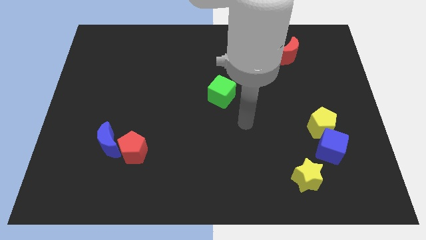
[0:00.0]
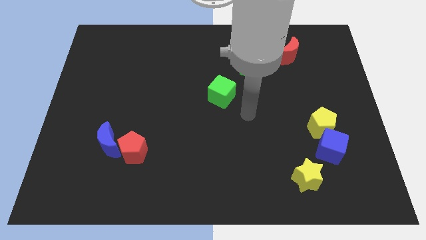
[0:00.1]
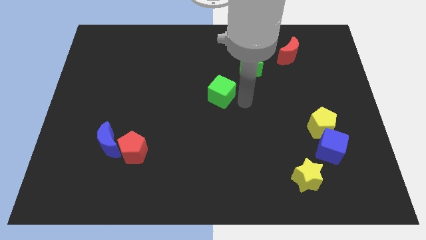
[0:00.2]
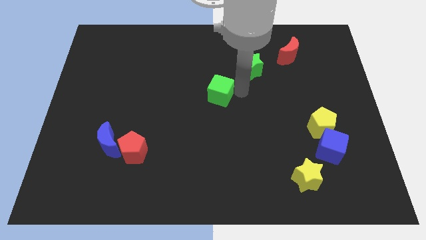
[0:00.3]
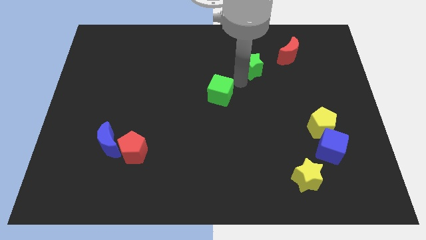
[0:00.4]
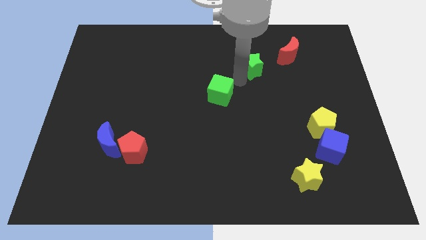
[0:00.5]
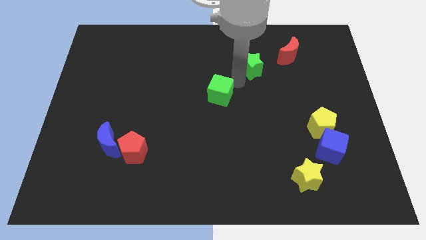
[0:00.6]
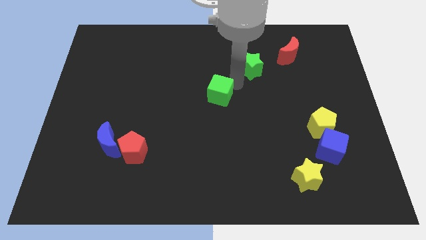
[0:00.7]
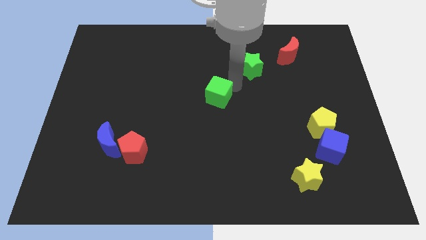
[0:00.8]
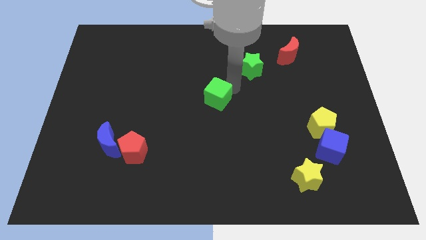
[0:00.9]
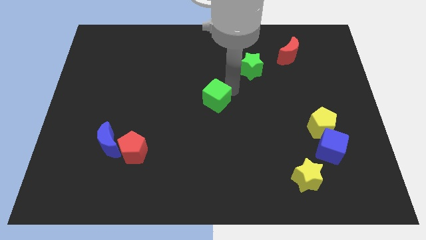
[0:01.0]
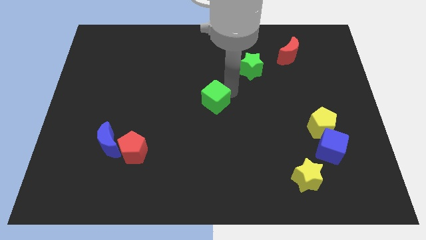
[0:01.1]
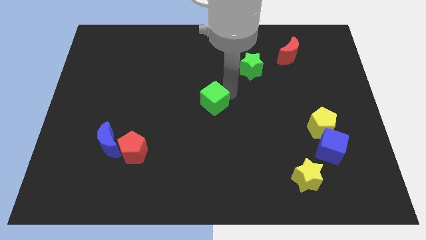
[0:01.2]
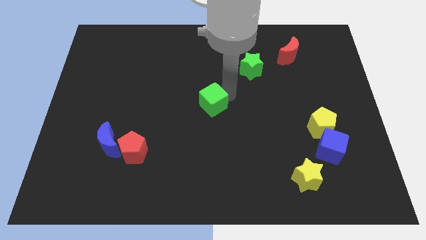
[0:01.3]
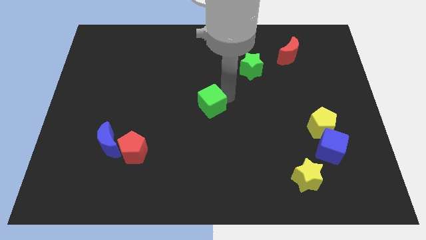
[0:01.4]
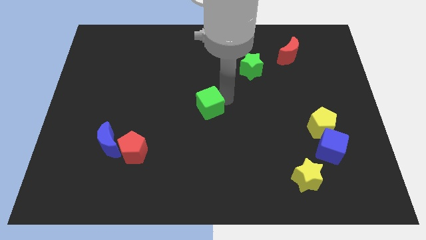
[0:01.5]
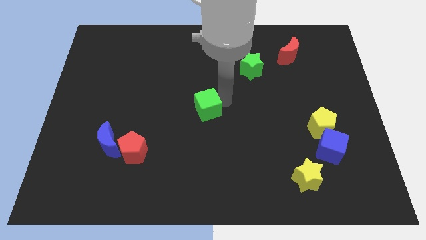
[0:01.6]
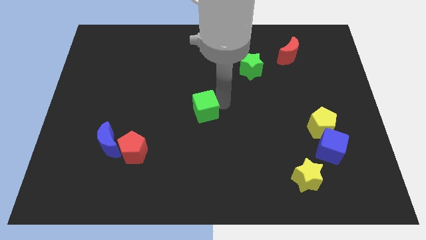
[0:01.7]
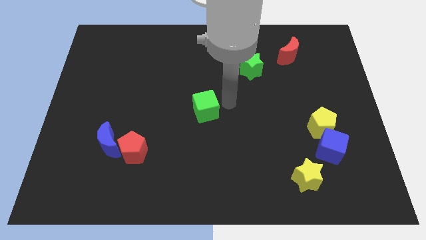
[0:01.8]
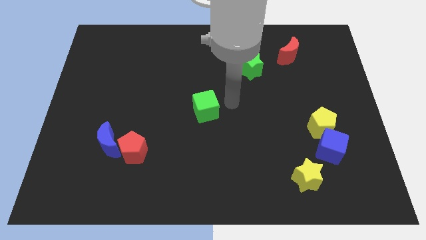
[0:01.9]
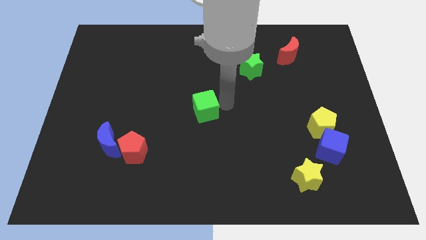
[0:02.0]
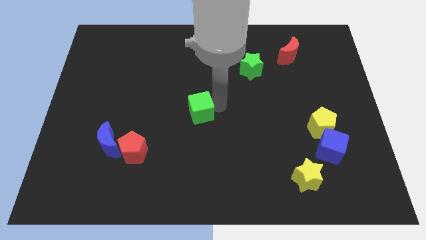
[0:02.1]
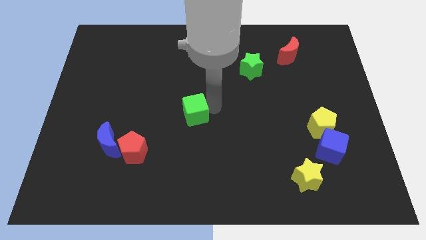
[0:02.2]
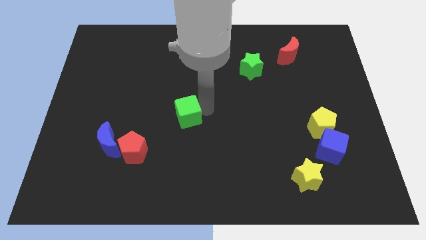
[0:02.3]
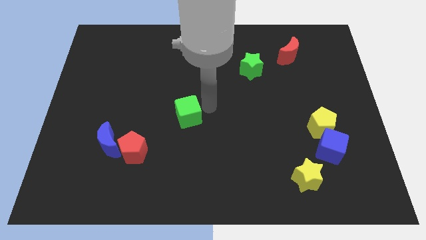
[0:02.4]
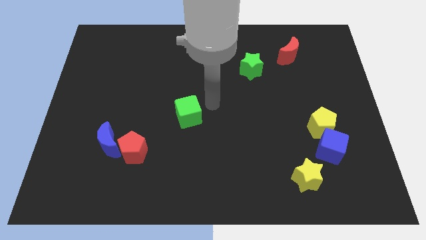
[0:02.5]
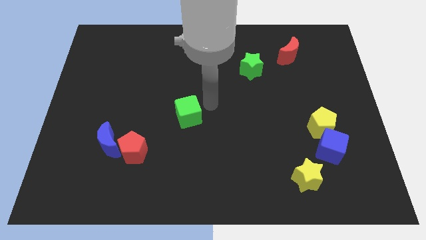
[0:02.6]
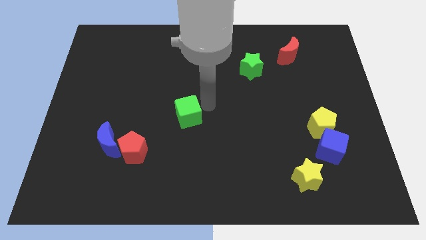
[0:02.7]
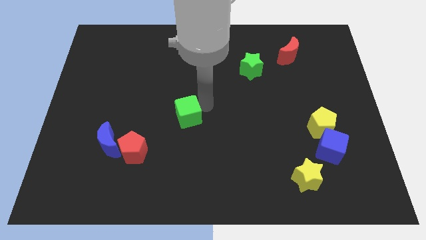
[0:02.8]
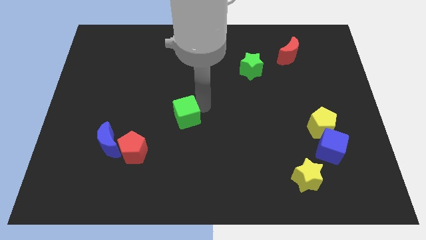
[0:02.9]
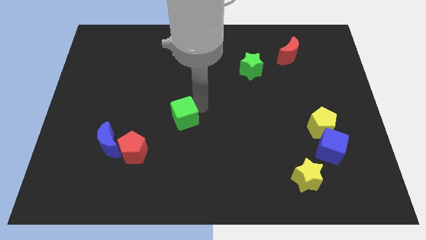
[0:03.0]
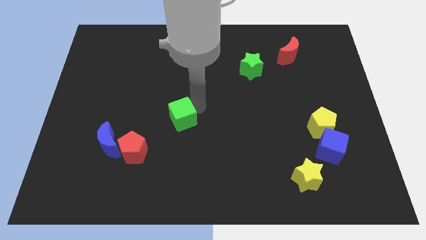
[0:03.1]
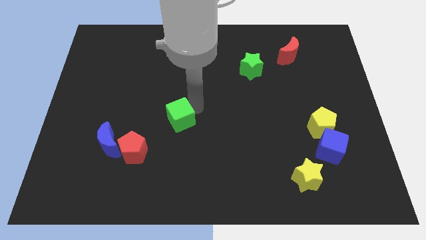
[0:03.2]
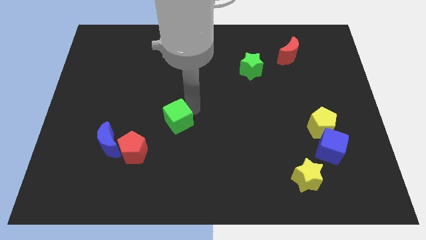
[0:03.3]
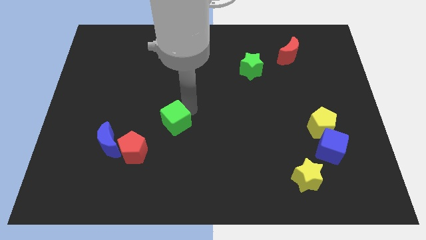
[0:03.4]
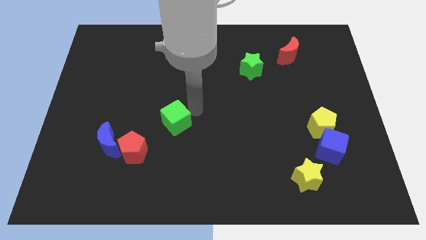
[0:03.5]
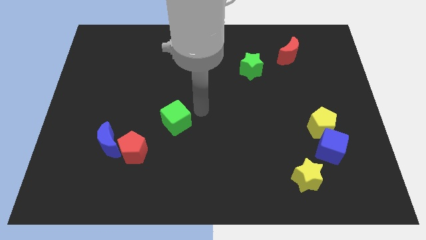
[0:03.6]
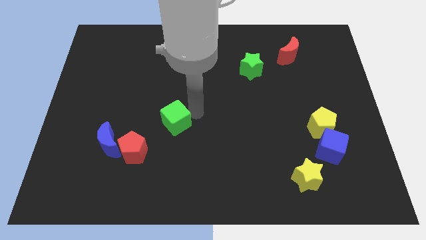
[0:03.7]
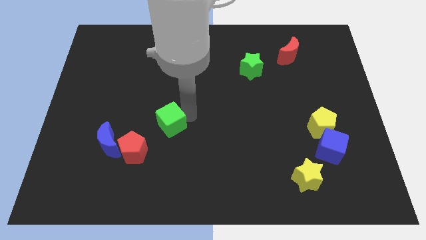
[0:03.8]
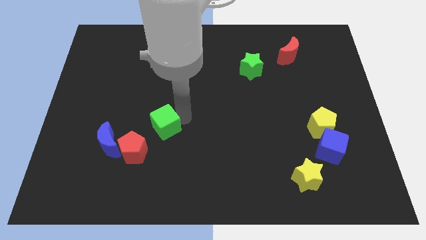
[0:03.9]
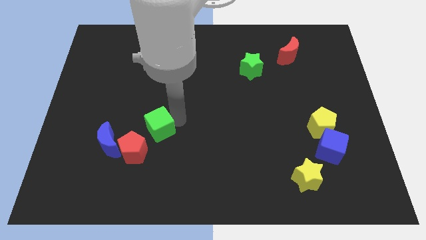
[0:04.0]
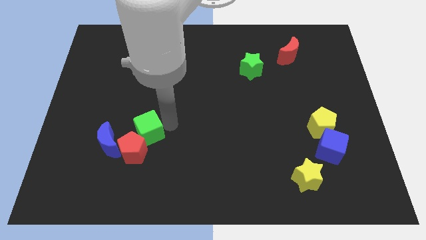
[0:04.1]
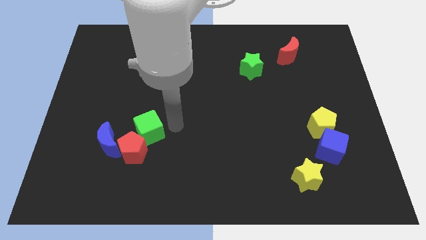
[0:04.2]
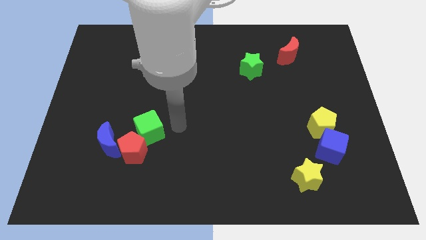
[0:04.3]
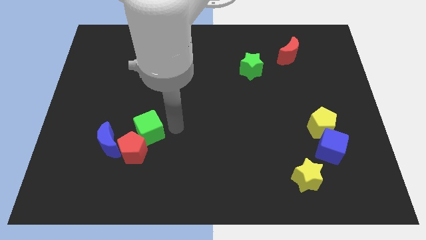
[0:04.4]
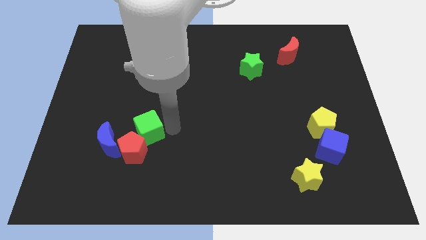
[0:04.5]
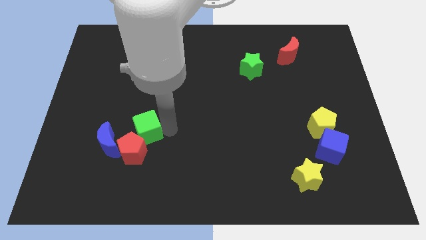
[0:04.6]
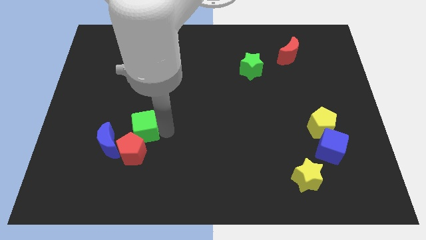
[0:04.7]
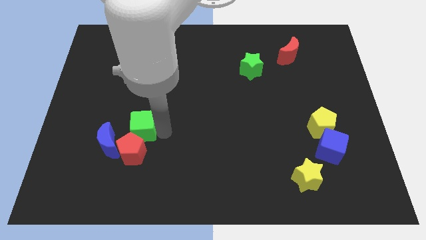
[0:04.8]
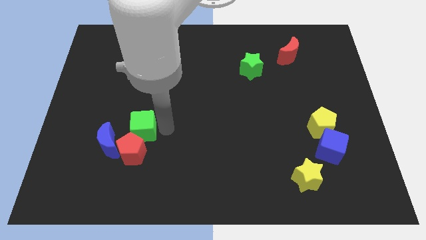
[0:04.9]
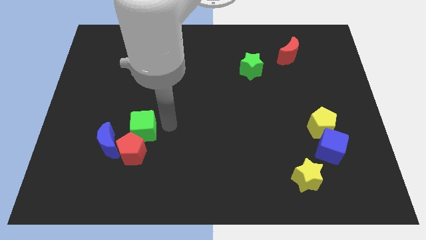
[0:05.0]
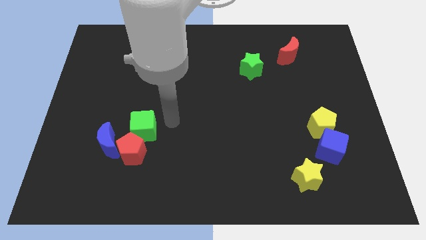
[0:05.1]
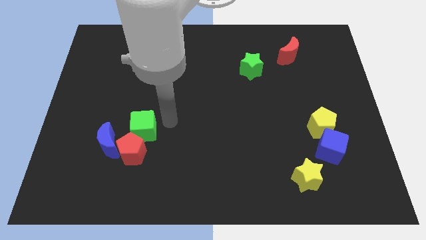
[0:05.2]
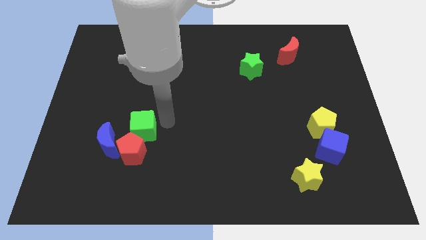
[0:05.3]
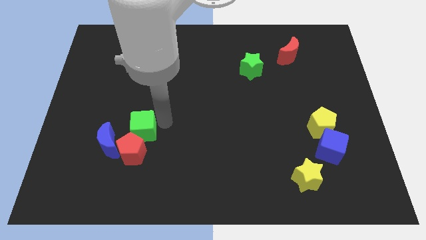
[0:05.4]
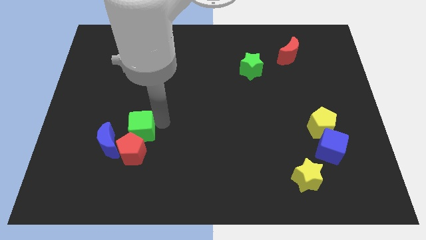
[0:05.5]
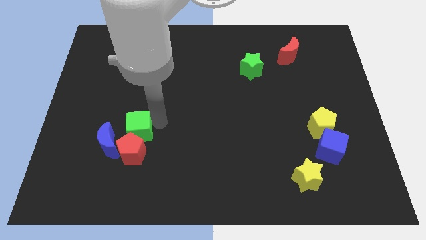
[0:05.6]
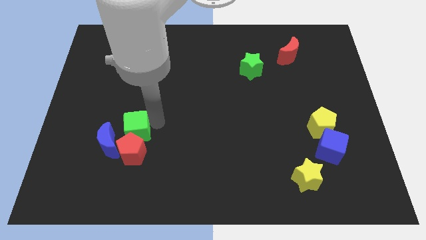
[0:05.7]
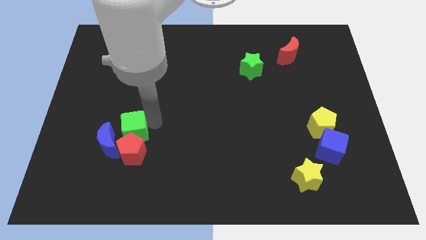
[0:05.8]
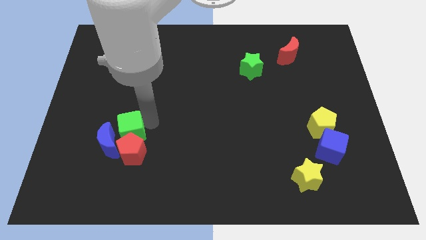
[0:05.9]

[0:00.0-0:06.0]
move the green cube towards the blue moon
